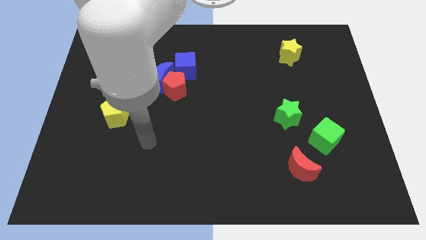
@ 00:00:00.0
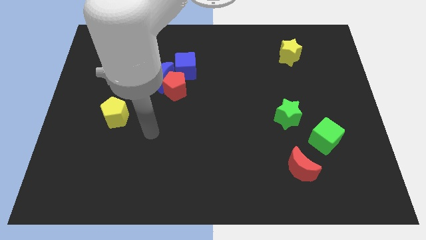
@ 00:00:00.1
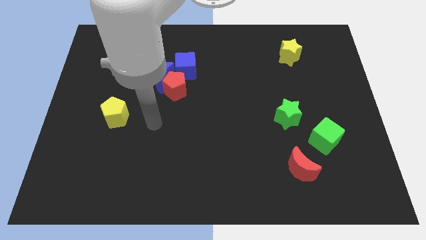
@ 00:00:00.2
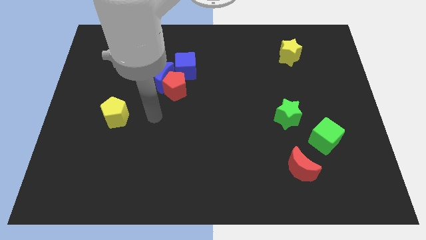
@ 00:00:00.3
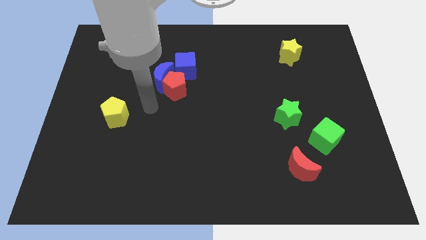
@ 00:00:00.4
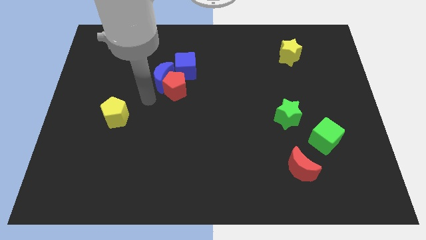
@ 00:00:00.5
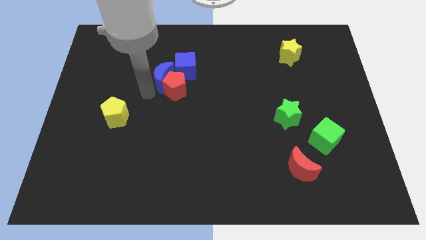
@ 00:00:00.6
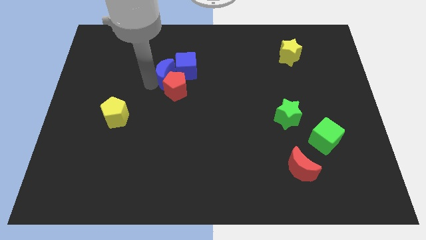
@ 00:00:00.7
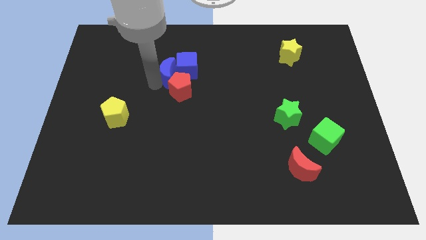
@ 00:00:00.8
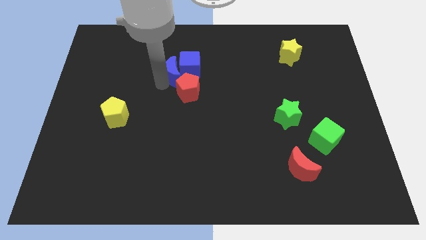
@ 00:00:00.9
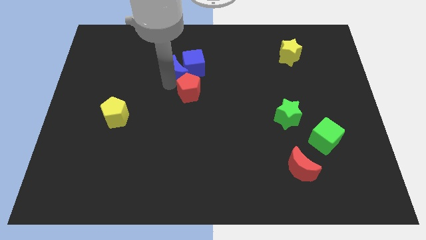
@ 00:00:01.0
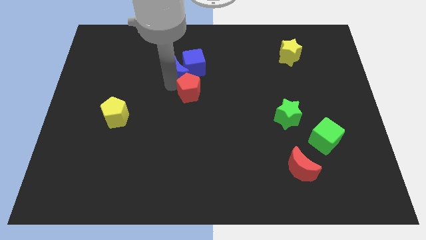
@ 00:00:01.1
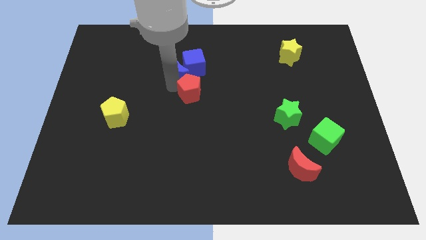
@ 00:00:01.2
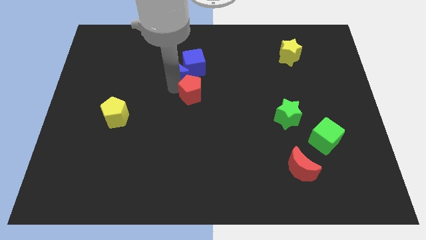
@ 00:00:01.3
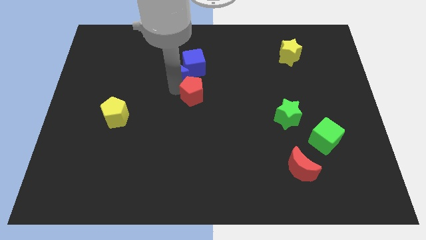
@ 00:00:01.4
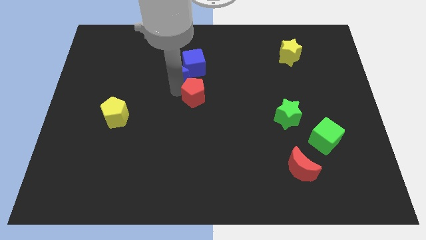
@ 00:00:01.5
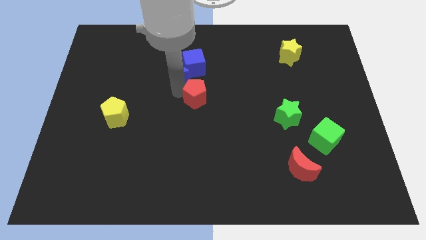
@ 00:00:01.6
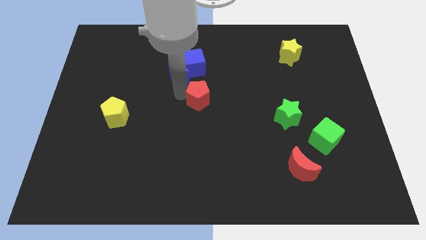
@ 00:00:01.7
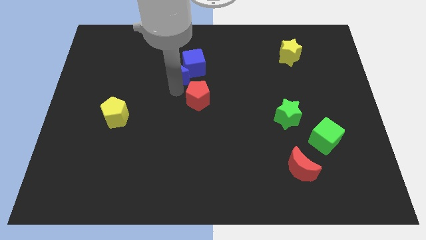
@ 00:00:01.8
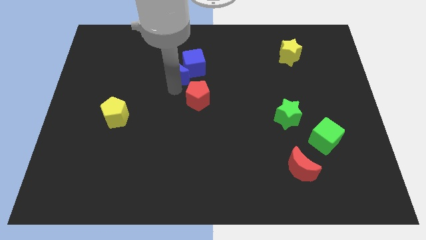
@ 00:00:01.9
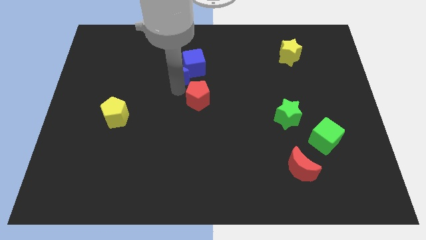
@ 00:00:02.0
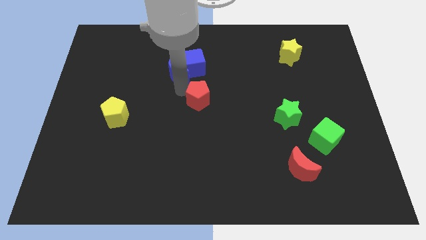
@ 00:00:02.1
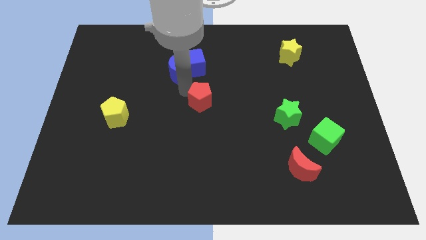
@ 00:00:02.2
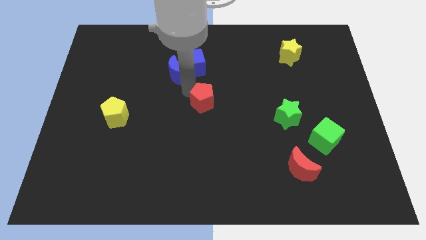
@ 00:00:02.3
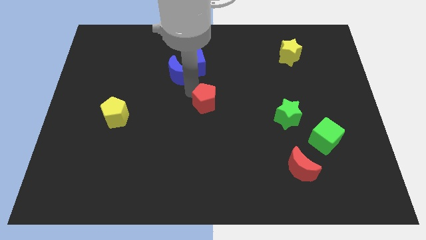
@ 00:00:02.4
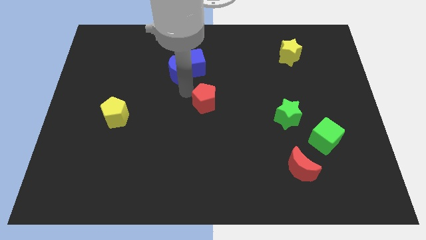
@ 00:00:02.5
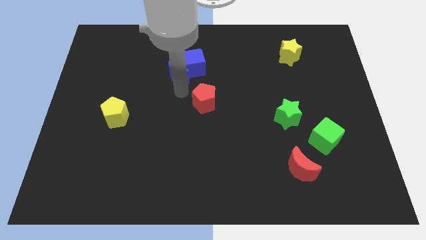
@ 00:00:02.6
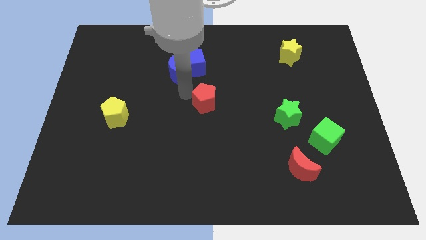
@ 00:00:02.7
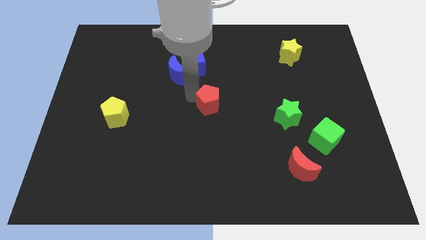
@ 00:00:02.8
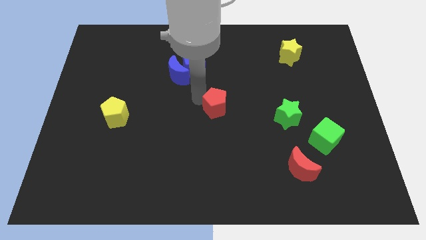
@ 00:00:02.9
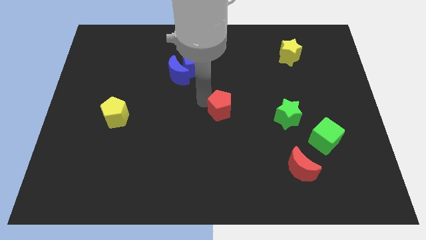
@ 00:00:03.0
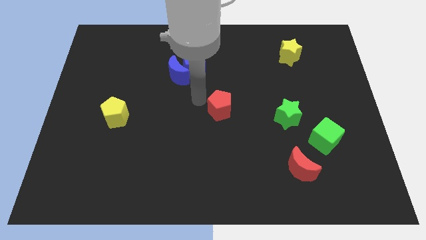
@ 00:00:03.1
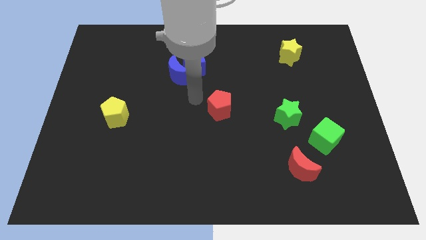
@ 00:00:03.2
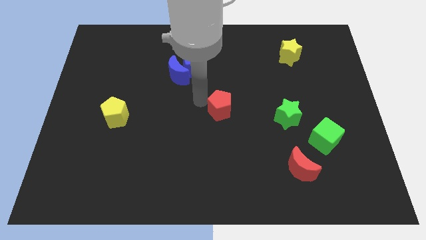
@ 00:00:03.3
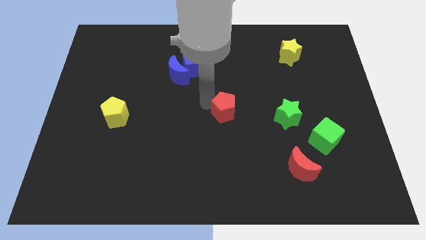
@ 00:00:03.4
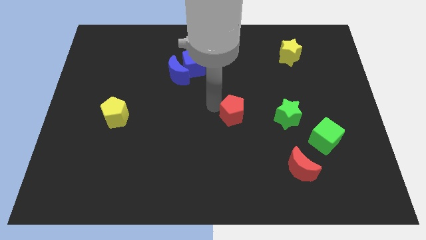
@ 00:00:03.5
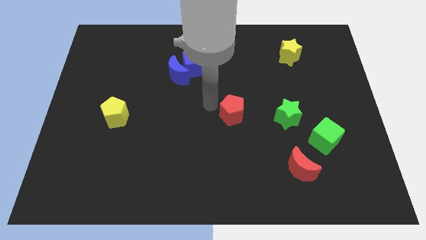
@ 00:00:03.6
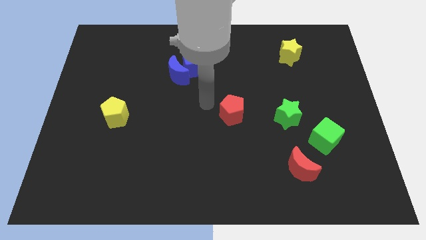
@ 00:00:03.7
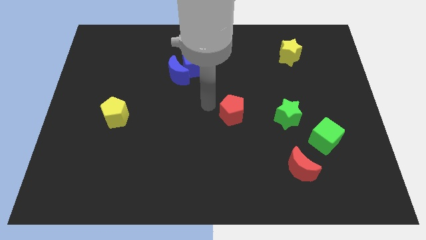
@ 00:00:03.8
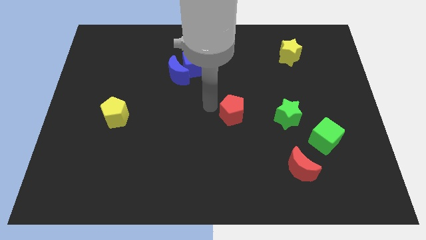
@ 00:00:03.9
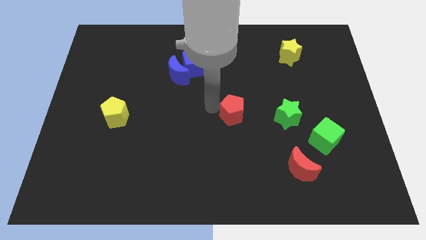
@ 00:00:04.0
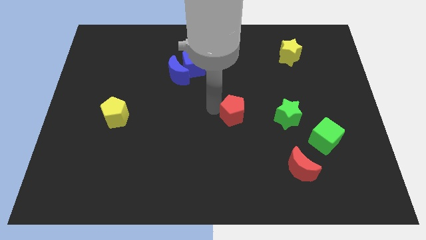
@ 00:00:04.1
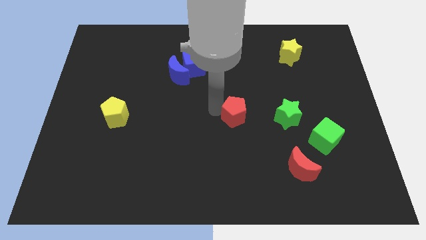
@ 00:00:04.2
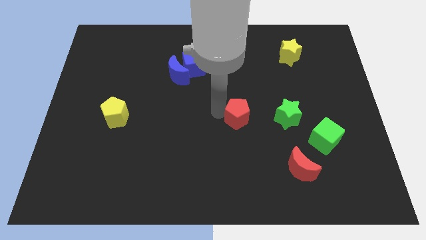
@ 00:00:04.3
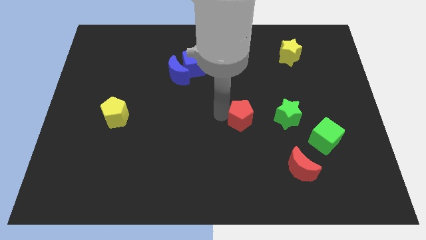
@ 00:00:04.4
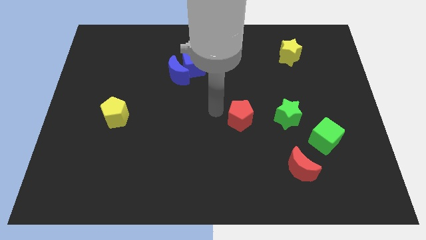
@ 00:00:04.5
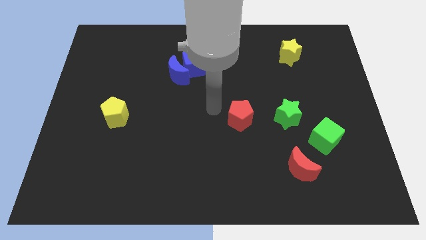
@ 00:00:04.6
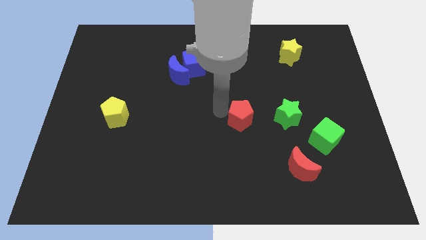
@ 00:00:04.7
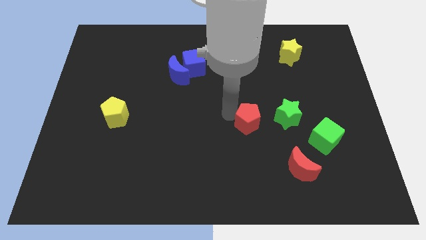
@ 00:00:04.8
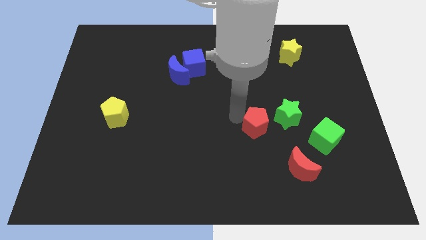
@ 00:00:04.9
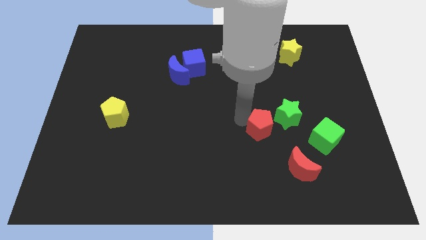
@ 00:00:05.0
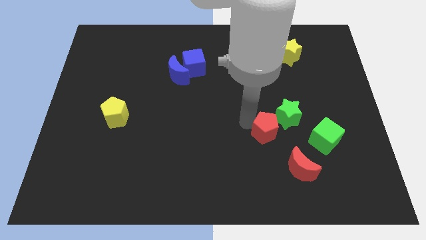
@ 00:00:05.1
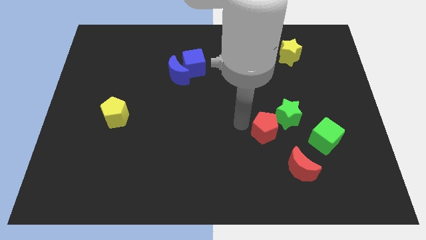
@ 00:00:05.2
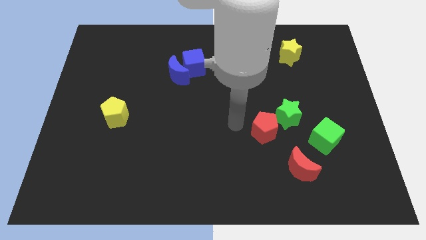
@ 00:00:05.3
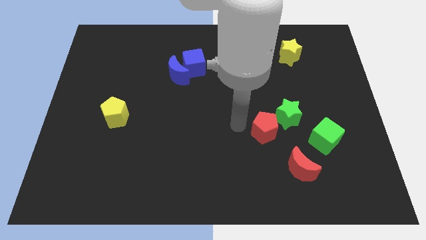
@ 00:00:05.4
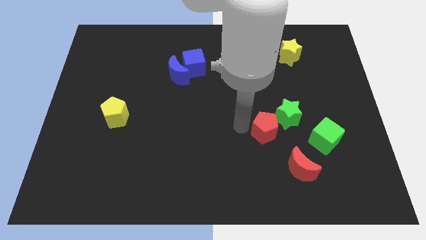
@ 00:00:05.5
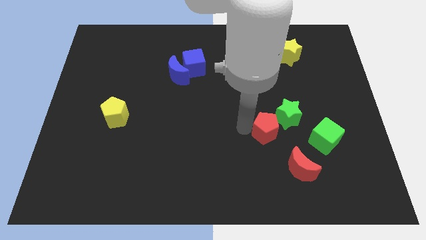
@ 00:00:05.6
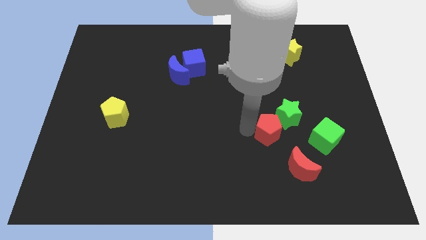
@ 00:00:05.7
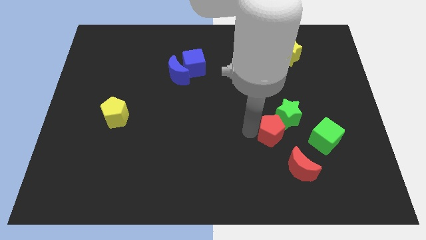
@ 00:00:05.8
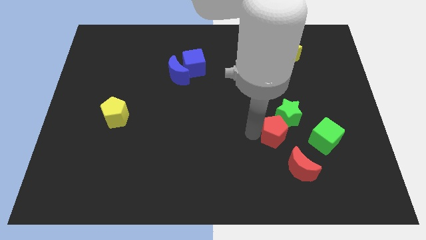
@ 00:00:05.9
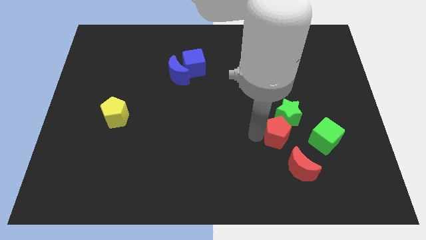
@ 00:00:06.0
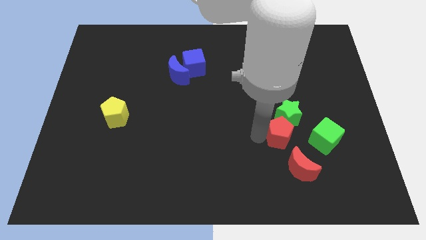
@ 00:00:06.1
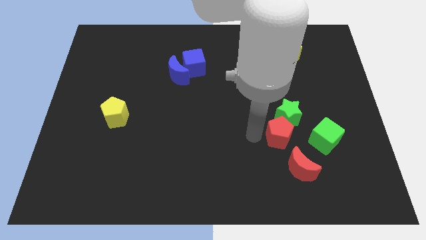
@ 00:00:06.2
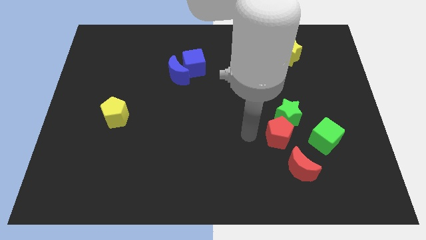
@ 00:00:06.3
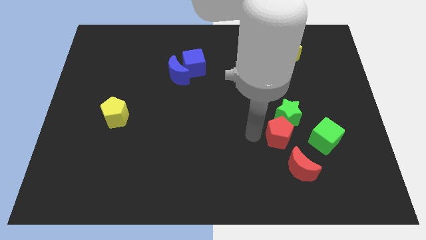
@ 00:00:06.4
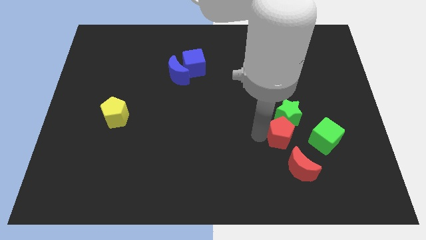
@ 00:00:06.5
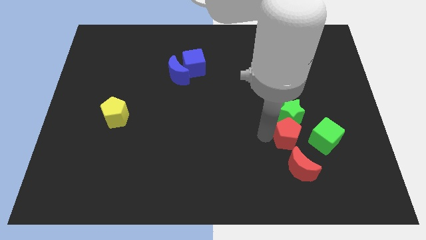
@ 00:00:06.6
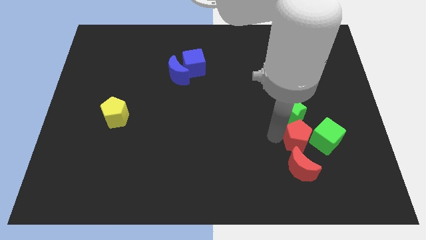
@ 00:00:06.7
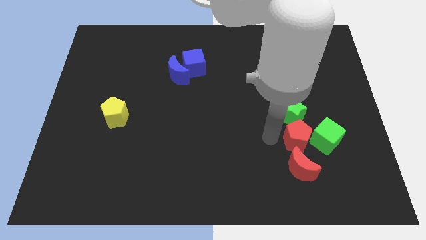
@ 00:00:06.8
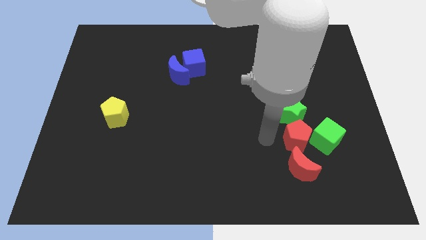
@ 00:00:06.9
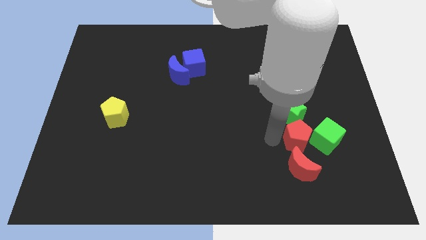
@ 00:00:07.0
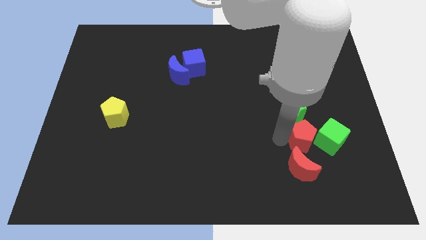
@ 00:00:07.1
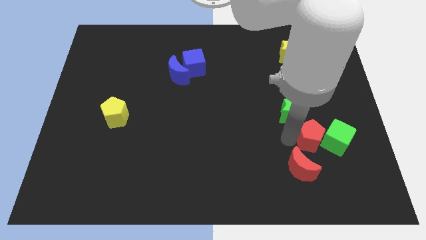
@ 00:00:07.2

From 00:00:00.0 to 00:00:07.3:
put the red pentagon towards the green cube

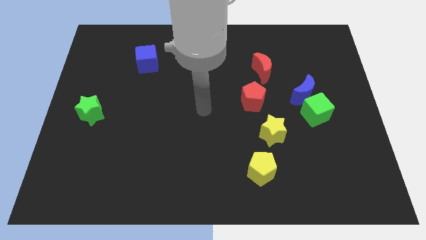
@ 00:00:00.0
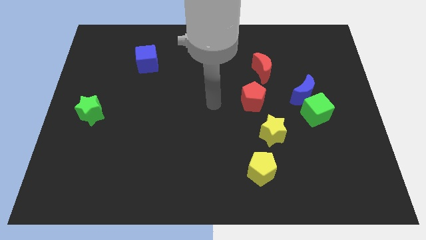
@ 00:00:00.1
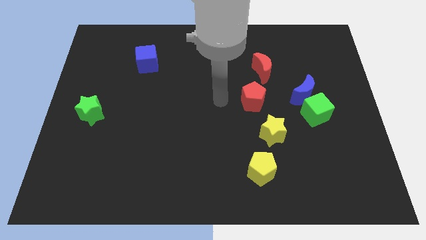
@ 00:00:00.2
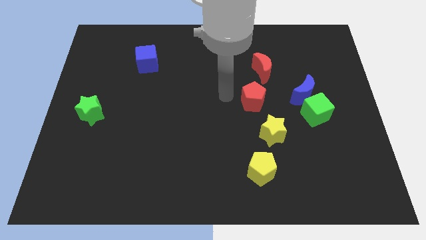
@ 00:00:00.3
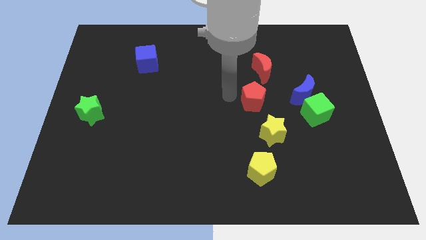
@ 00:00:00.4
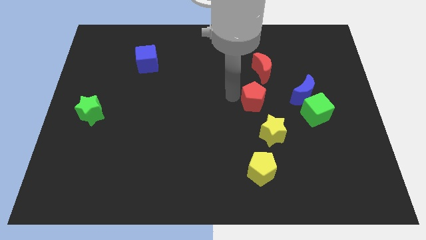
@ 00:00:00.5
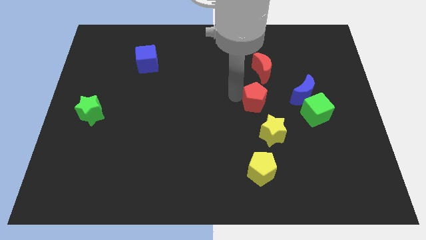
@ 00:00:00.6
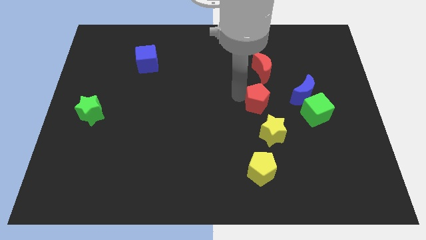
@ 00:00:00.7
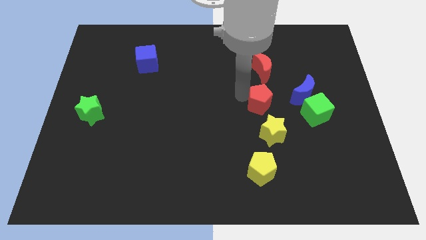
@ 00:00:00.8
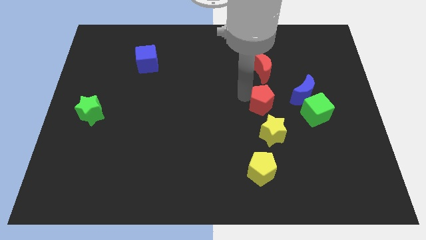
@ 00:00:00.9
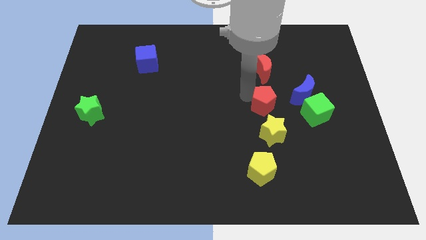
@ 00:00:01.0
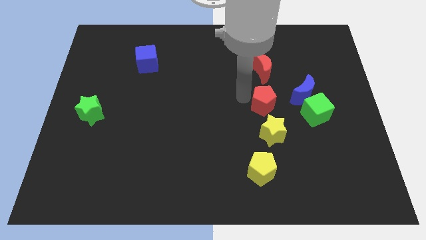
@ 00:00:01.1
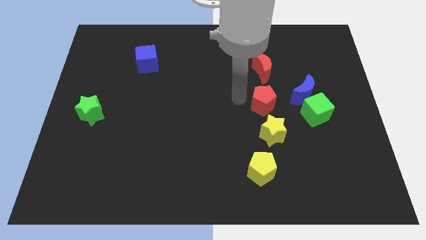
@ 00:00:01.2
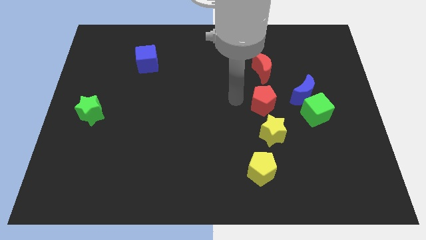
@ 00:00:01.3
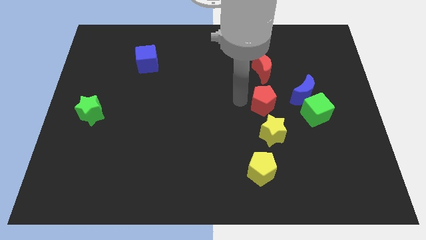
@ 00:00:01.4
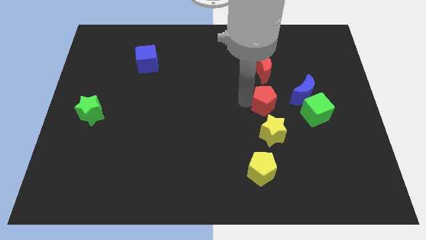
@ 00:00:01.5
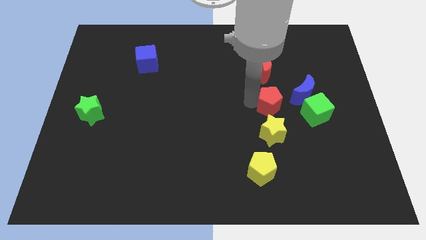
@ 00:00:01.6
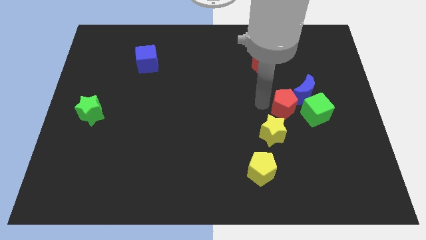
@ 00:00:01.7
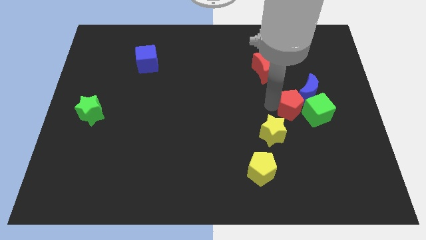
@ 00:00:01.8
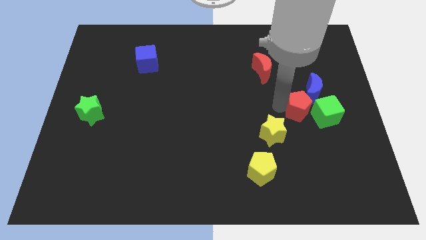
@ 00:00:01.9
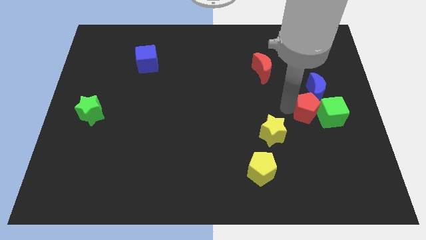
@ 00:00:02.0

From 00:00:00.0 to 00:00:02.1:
slide the red pentagon close to the green cube
